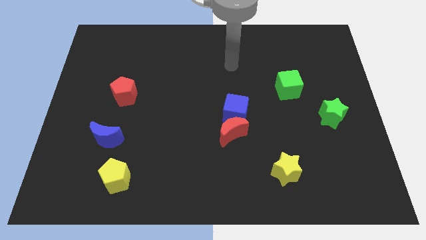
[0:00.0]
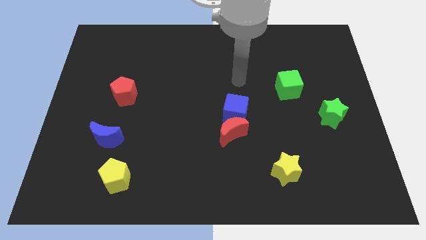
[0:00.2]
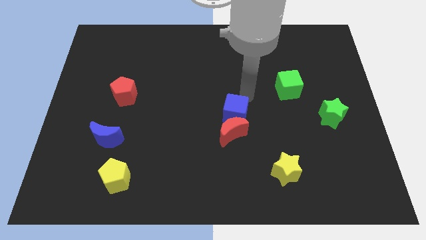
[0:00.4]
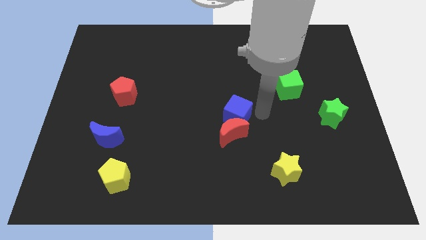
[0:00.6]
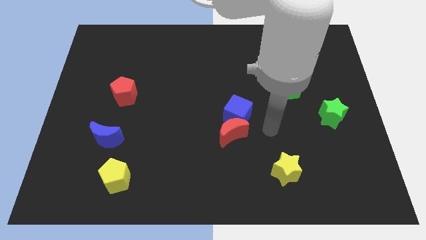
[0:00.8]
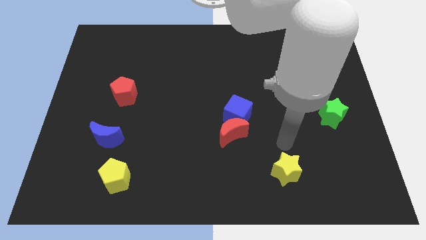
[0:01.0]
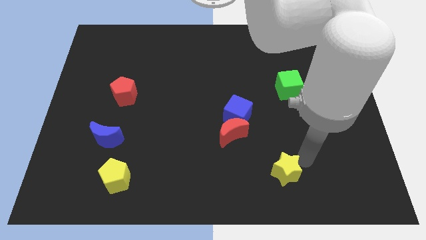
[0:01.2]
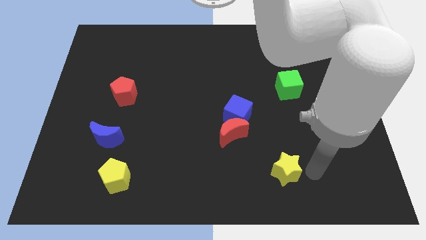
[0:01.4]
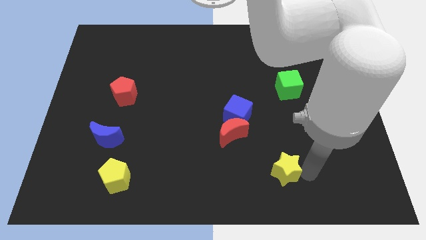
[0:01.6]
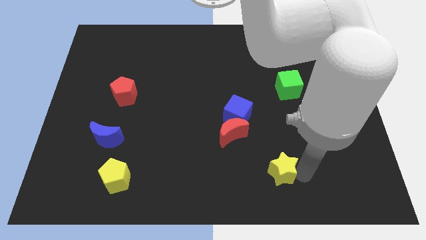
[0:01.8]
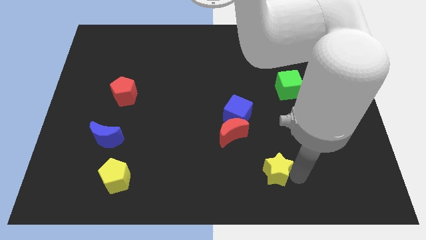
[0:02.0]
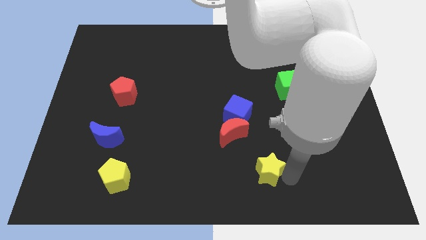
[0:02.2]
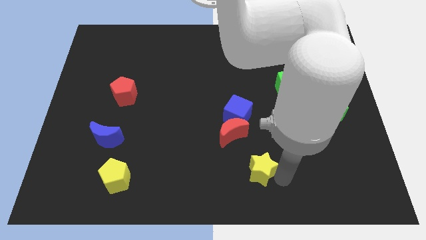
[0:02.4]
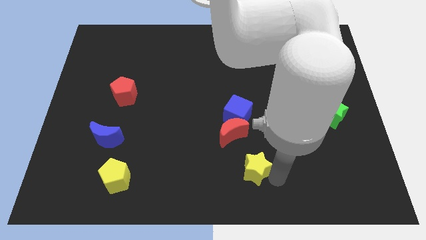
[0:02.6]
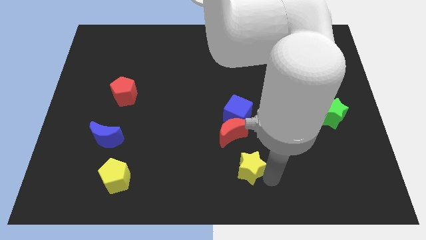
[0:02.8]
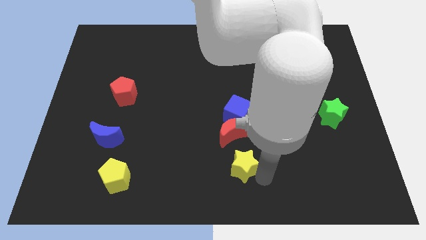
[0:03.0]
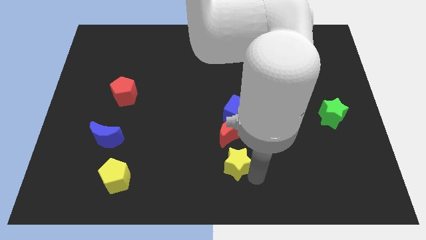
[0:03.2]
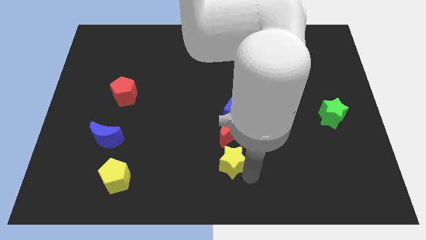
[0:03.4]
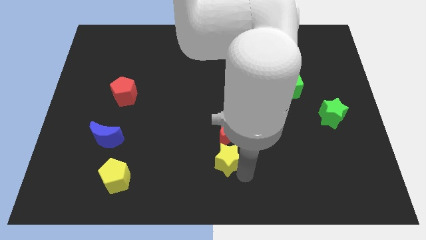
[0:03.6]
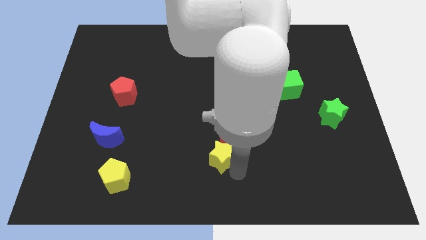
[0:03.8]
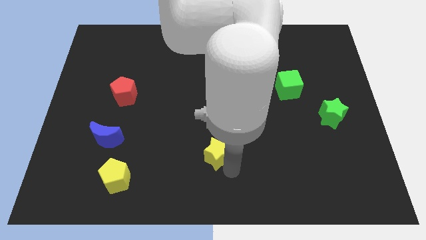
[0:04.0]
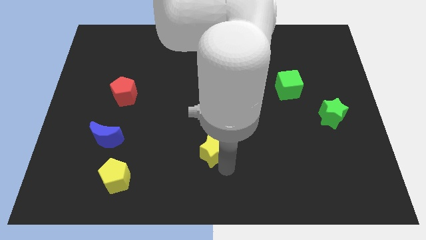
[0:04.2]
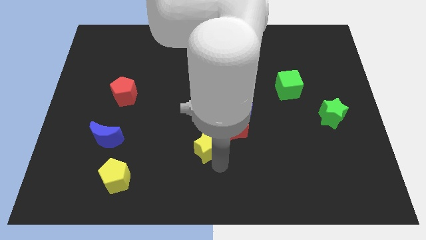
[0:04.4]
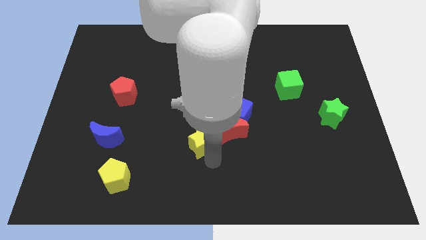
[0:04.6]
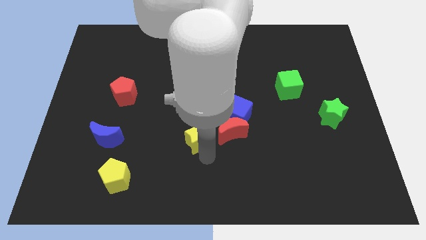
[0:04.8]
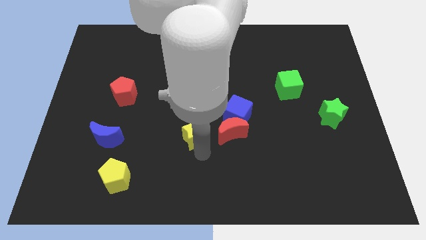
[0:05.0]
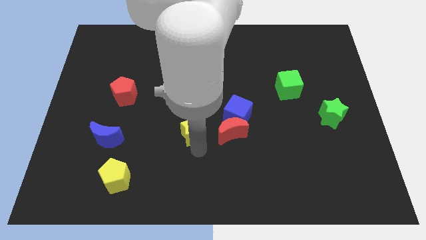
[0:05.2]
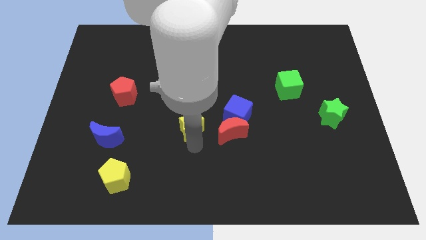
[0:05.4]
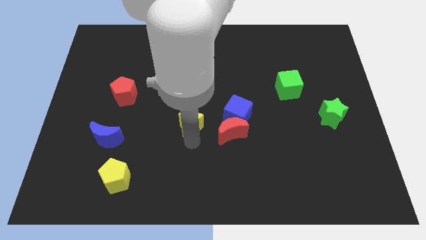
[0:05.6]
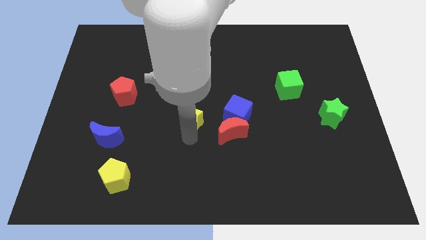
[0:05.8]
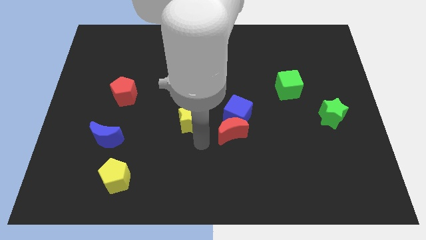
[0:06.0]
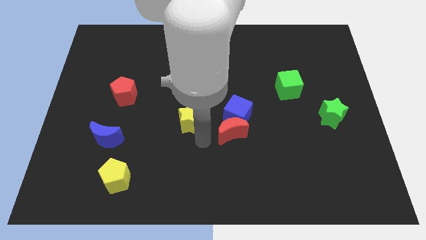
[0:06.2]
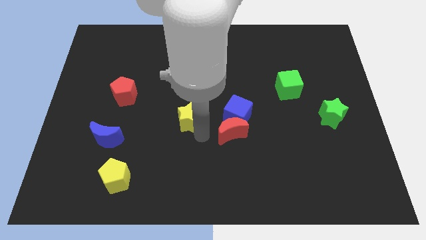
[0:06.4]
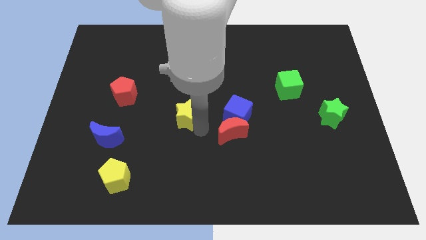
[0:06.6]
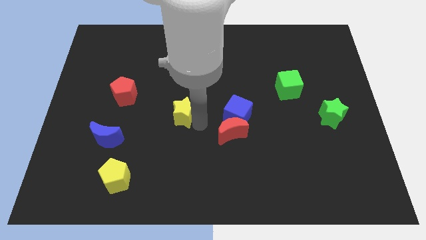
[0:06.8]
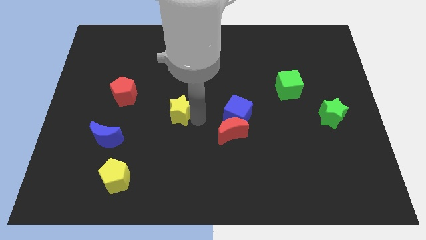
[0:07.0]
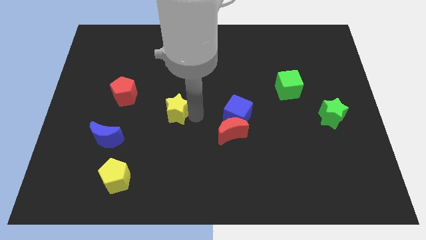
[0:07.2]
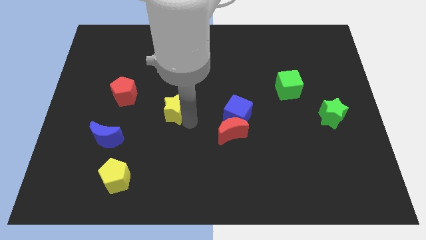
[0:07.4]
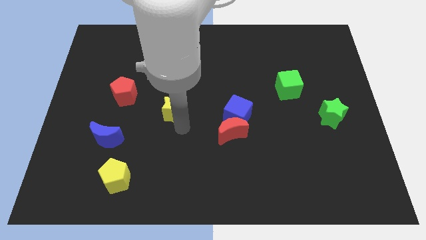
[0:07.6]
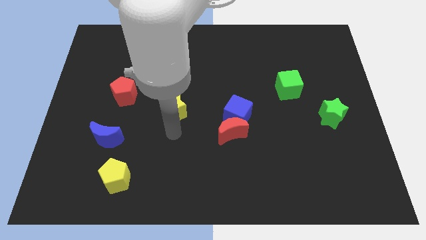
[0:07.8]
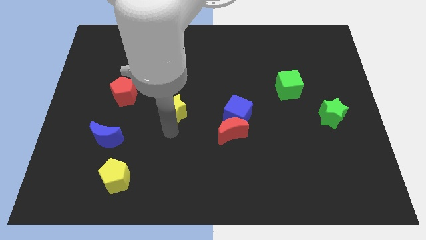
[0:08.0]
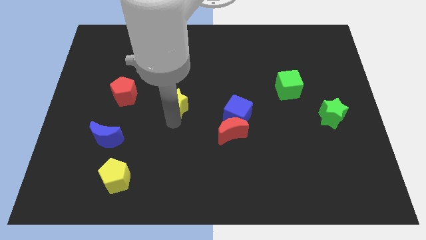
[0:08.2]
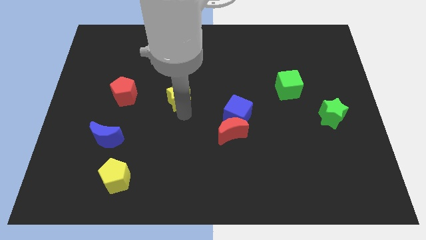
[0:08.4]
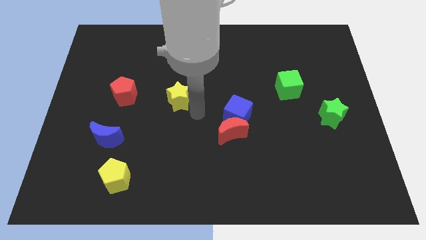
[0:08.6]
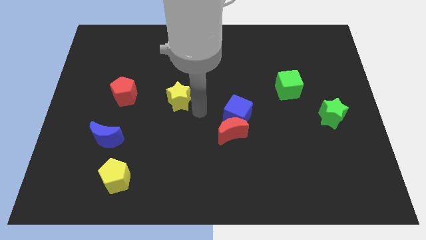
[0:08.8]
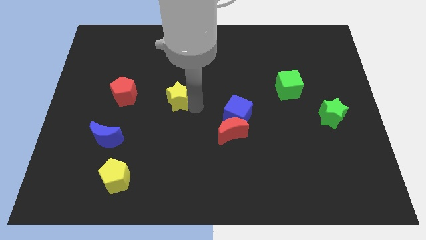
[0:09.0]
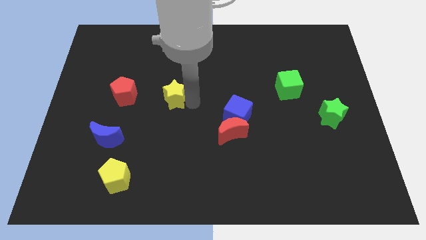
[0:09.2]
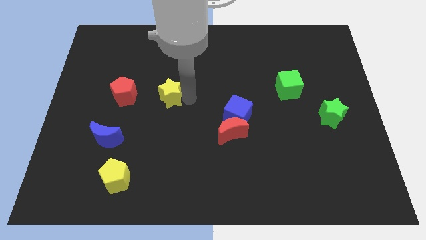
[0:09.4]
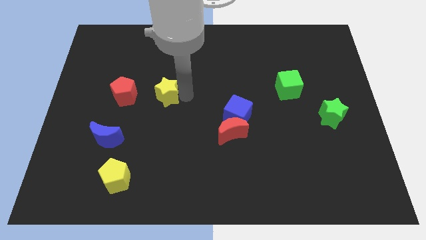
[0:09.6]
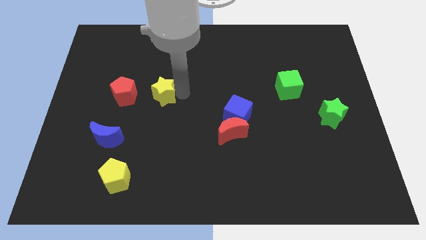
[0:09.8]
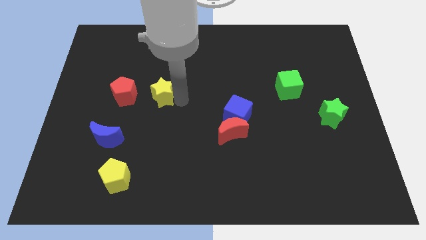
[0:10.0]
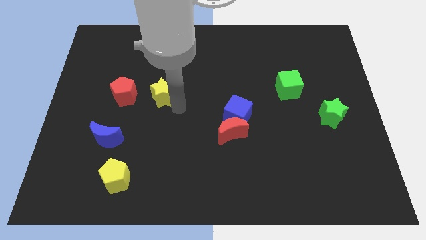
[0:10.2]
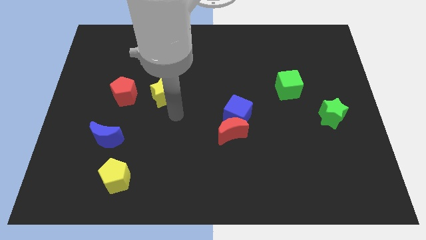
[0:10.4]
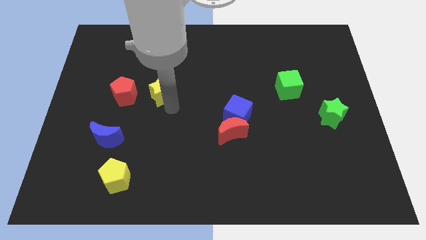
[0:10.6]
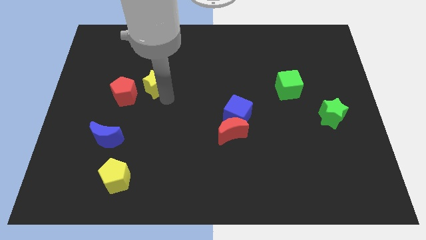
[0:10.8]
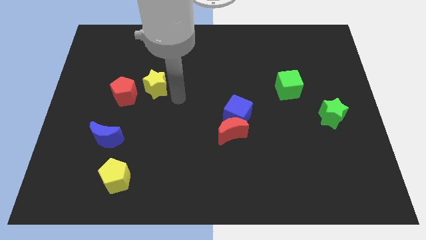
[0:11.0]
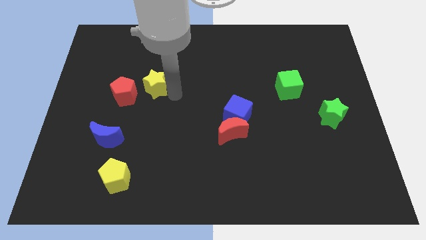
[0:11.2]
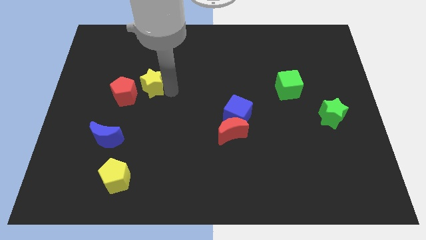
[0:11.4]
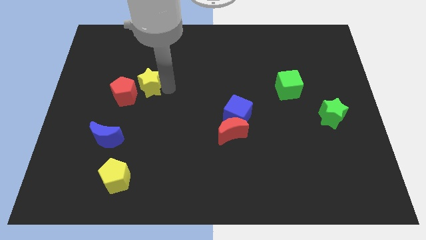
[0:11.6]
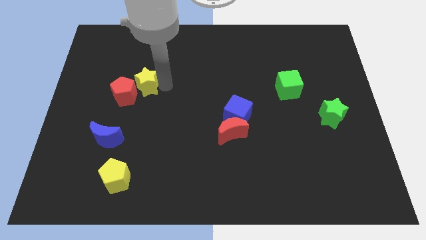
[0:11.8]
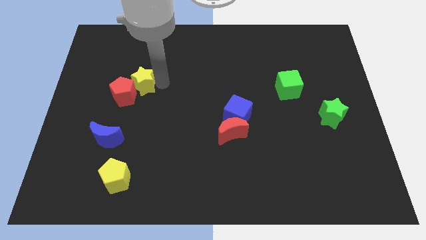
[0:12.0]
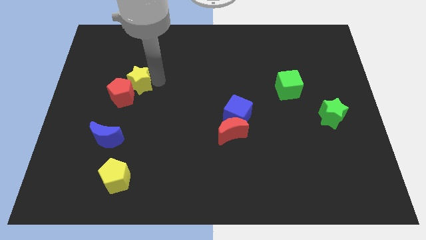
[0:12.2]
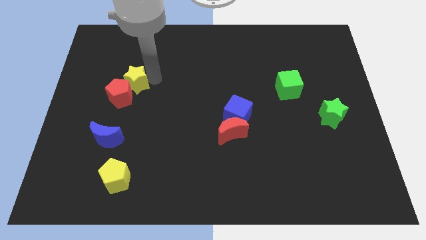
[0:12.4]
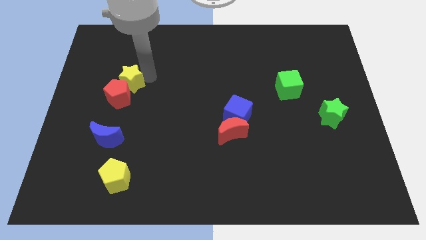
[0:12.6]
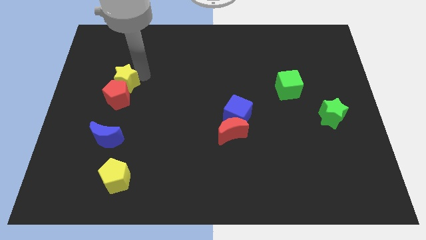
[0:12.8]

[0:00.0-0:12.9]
slide the yellow star diagonally up and to the left of the red pentagon

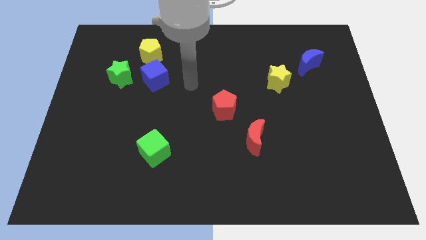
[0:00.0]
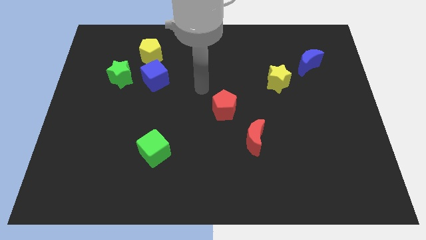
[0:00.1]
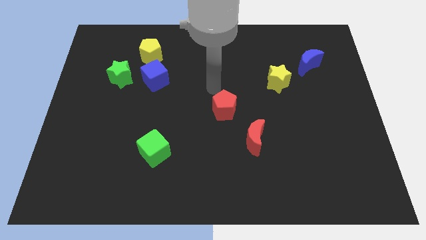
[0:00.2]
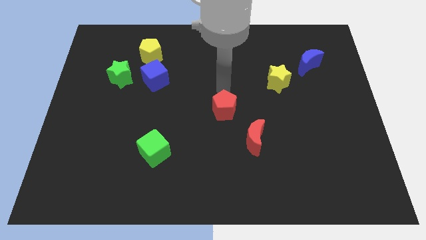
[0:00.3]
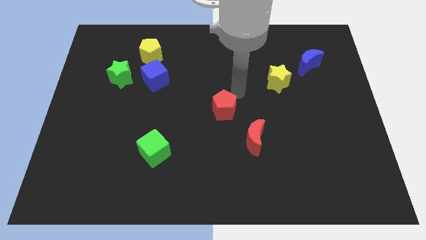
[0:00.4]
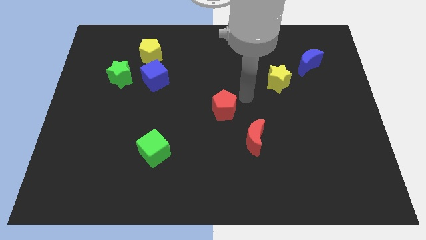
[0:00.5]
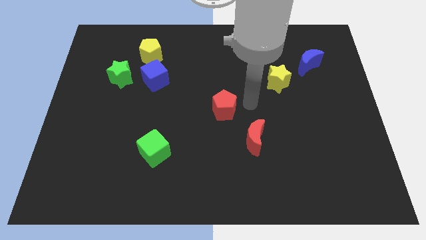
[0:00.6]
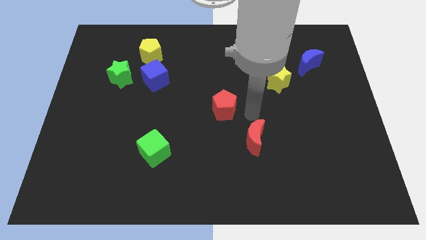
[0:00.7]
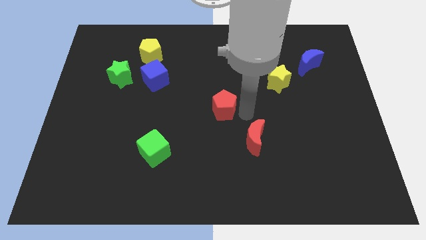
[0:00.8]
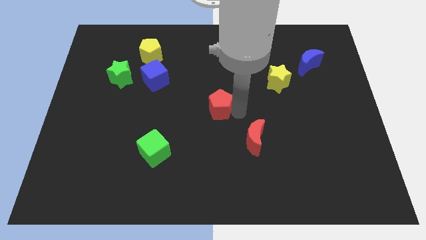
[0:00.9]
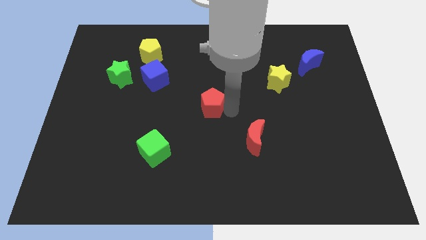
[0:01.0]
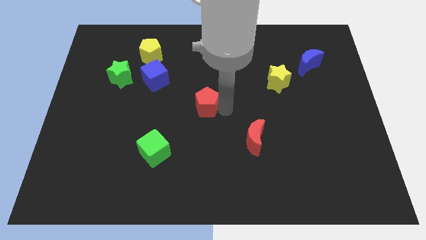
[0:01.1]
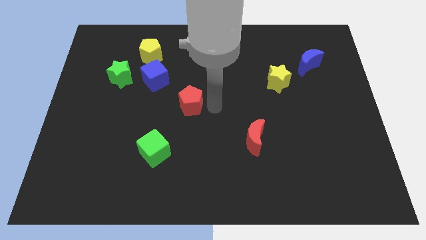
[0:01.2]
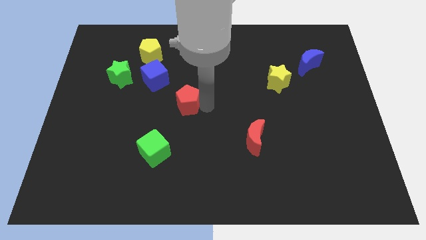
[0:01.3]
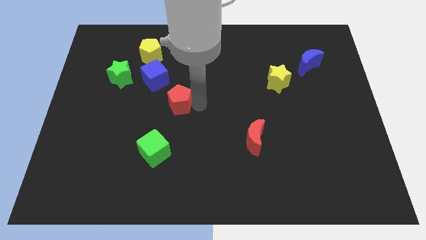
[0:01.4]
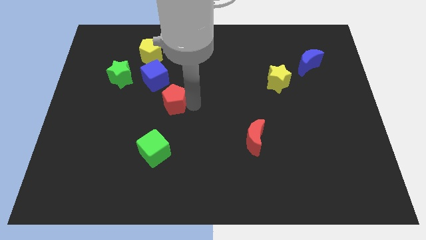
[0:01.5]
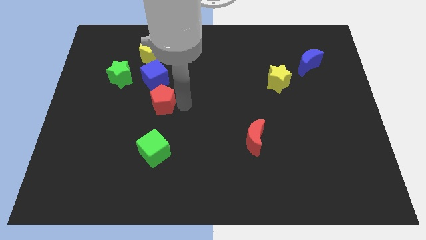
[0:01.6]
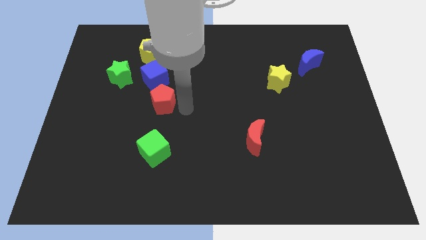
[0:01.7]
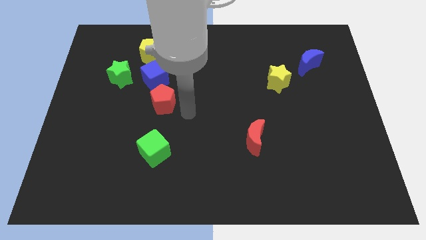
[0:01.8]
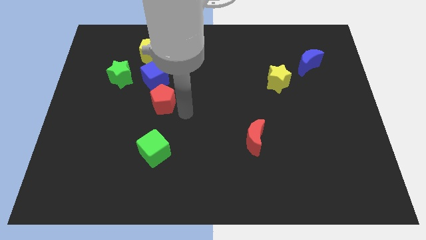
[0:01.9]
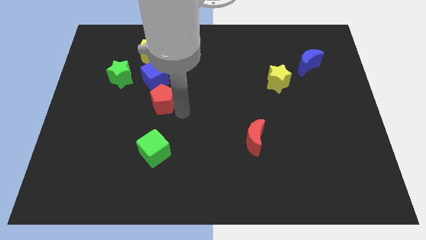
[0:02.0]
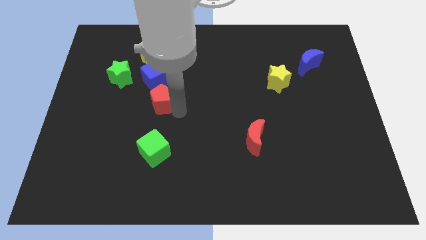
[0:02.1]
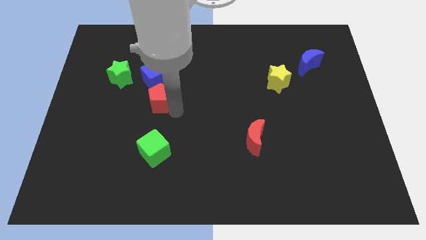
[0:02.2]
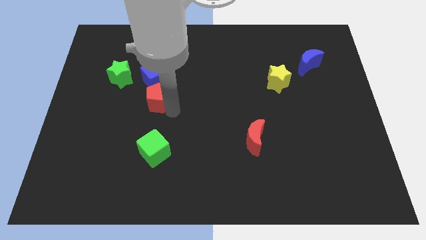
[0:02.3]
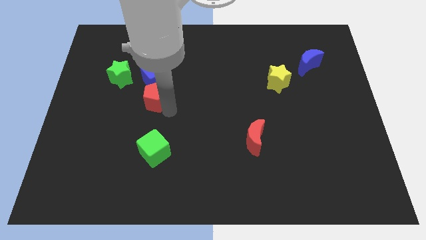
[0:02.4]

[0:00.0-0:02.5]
slide the red pentagon to the bottom right side of the green star
